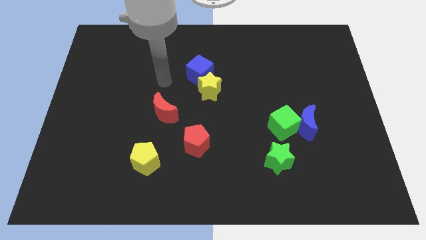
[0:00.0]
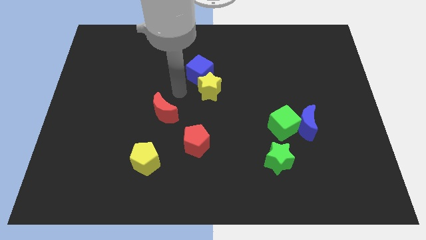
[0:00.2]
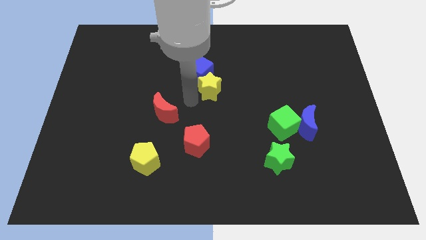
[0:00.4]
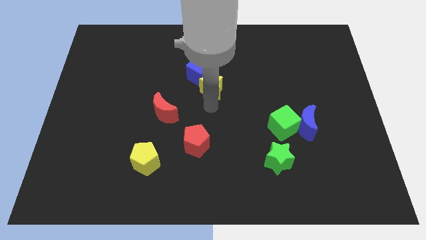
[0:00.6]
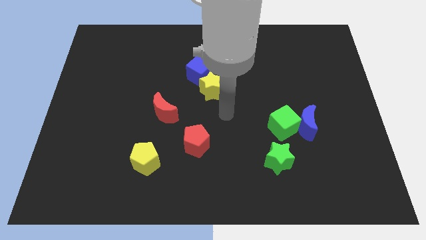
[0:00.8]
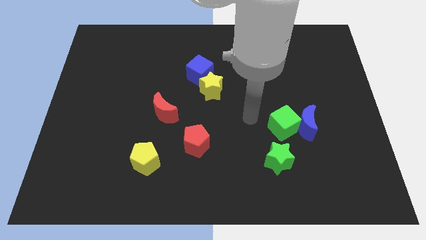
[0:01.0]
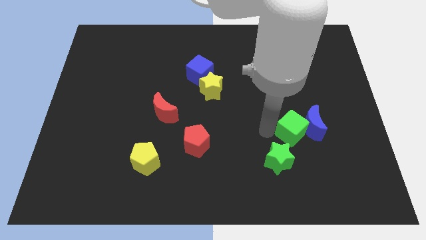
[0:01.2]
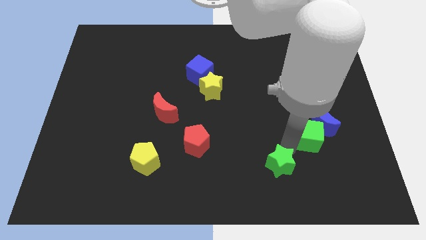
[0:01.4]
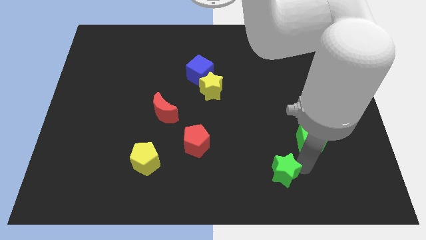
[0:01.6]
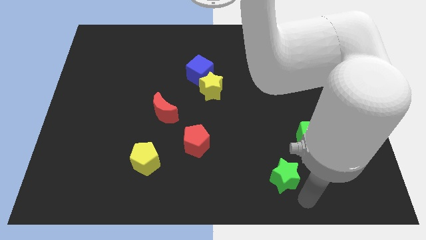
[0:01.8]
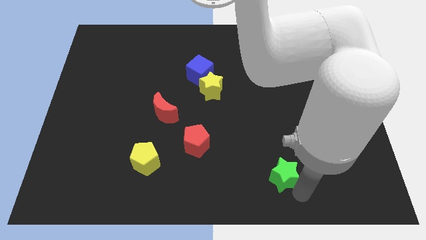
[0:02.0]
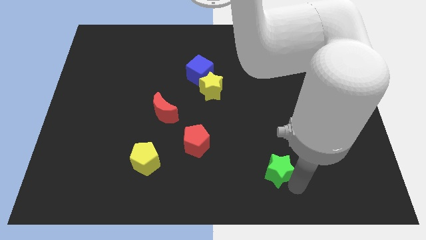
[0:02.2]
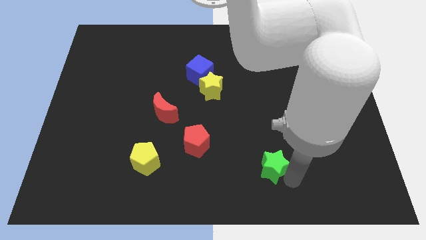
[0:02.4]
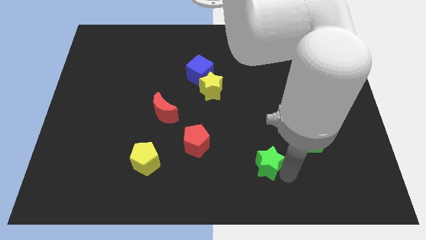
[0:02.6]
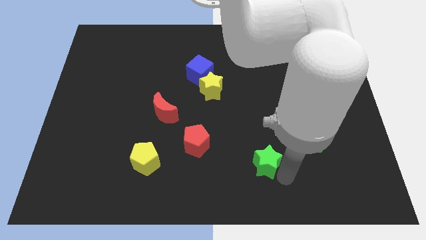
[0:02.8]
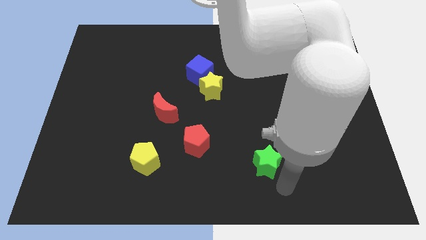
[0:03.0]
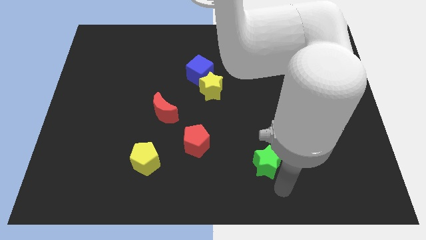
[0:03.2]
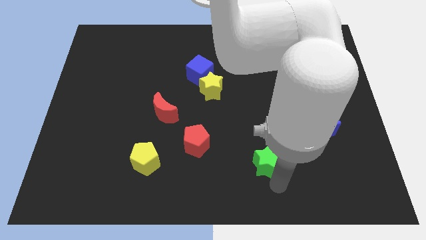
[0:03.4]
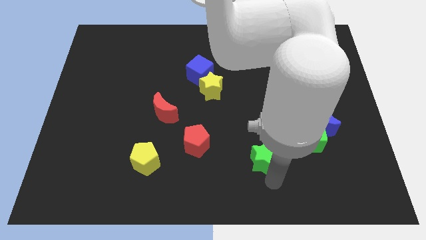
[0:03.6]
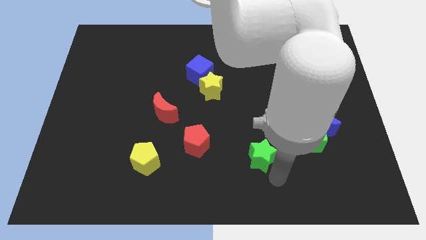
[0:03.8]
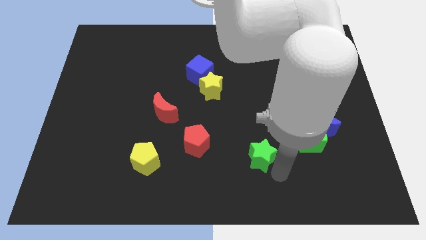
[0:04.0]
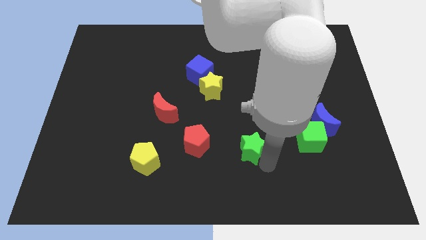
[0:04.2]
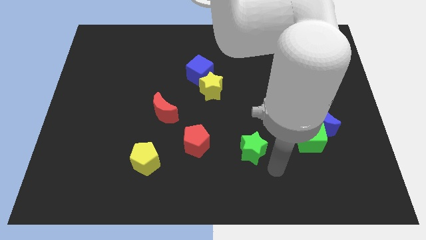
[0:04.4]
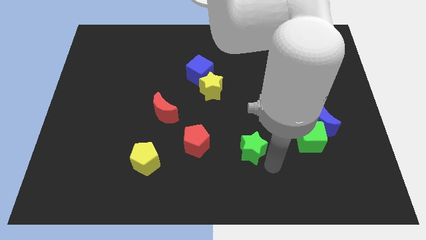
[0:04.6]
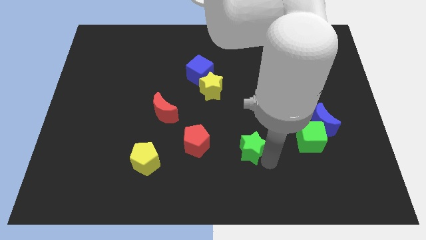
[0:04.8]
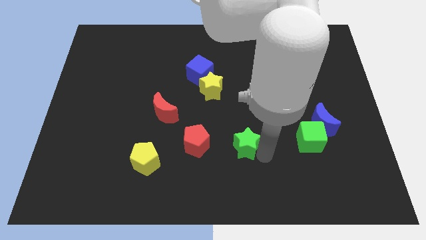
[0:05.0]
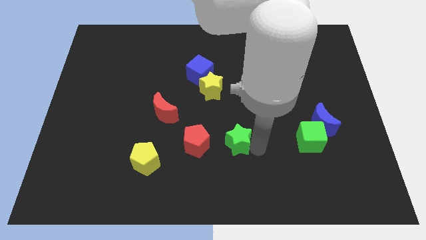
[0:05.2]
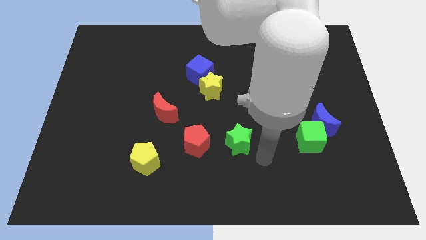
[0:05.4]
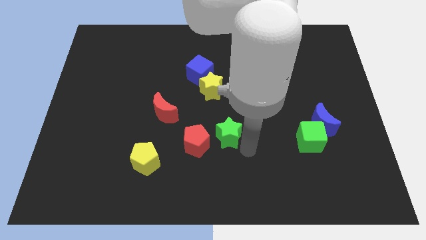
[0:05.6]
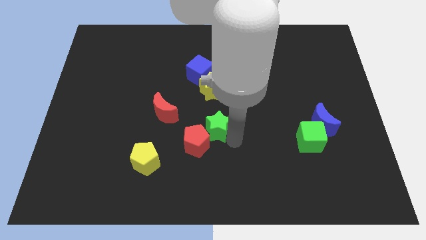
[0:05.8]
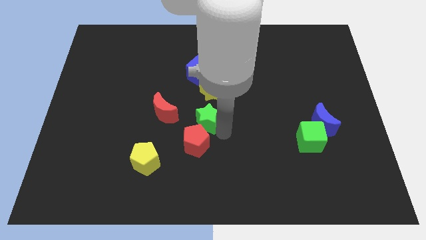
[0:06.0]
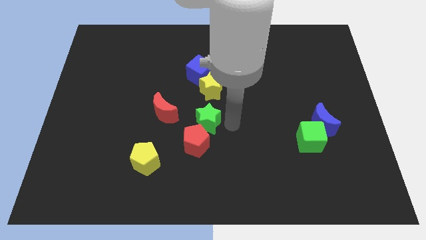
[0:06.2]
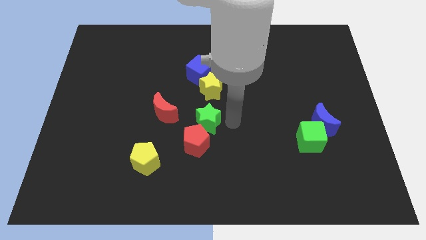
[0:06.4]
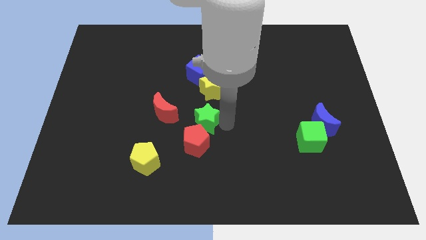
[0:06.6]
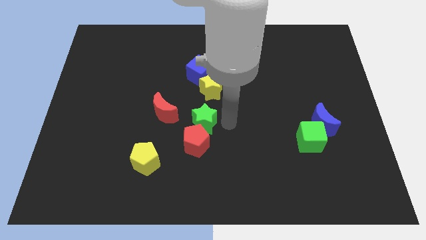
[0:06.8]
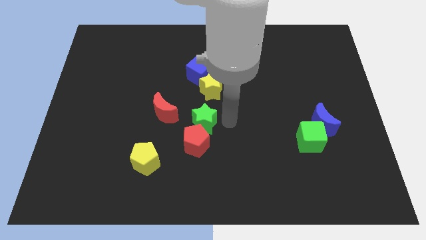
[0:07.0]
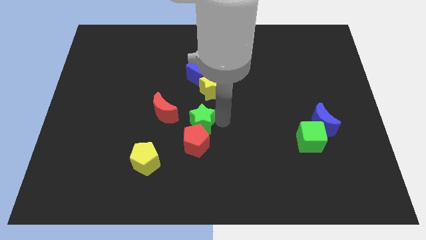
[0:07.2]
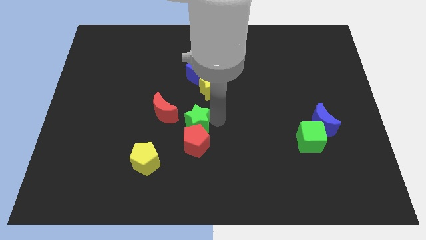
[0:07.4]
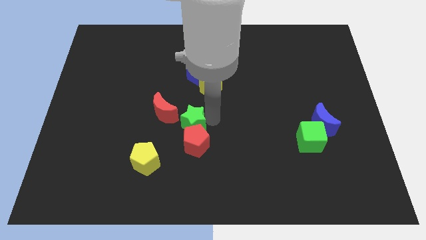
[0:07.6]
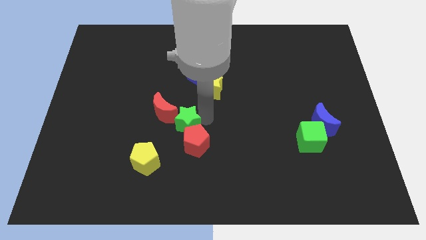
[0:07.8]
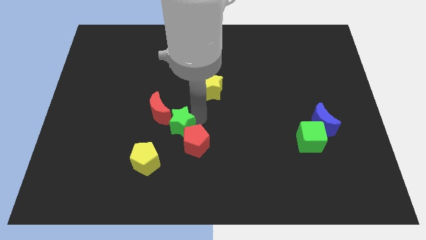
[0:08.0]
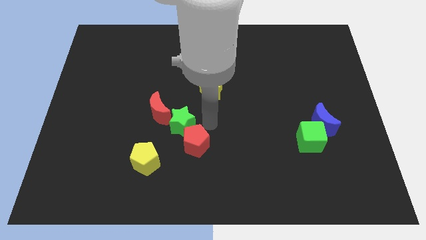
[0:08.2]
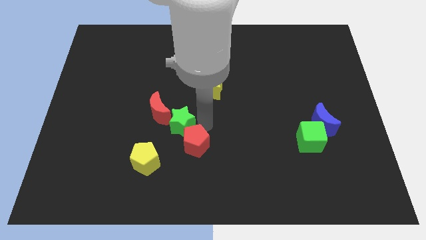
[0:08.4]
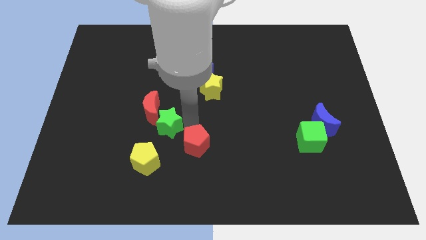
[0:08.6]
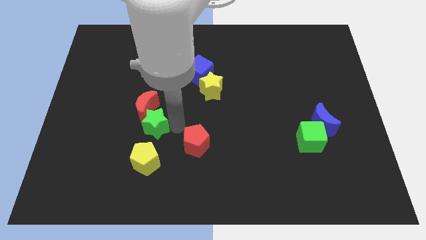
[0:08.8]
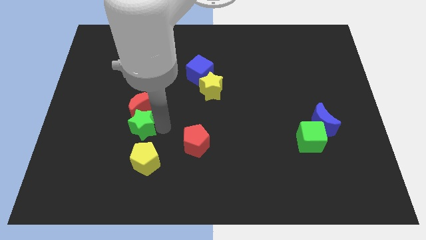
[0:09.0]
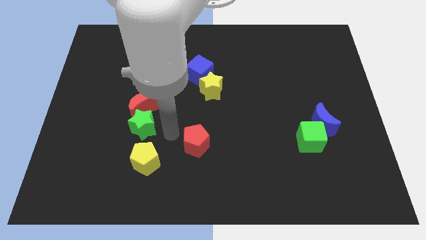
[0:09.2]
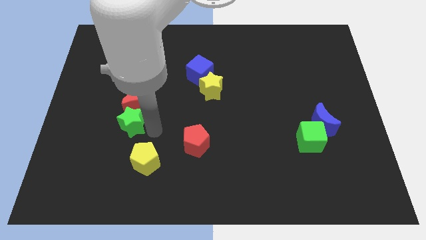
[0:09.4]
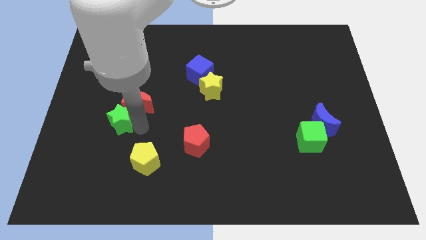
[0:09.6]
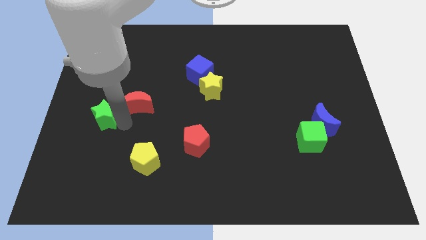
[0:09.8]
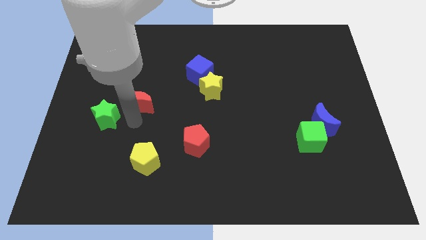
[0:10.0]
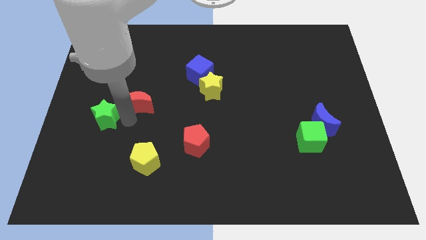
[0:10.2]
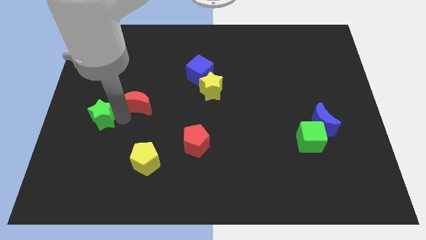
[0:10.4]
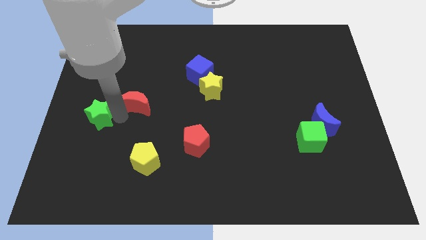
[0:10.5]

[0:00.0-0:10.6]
put the green star to the left side
